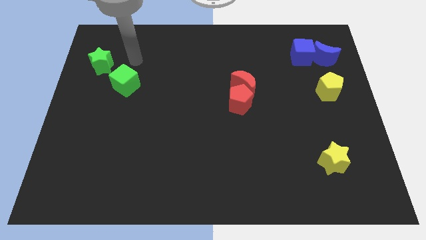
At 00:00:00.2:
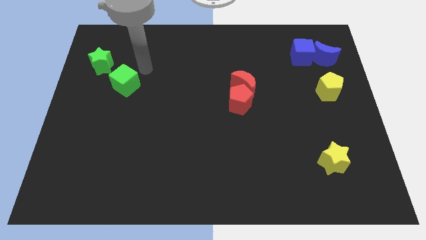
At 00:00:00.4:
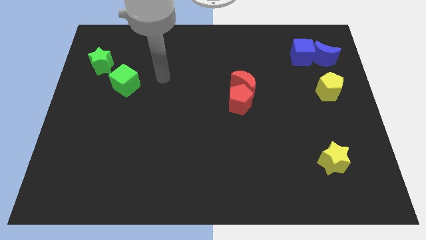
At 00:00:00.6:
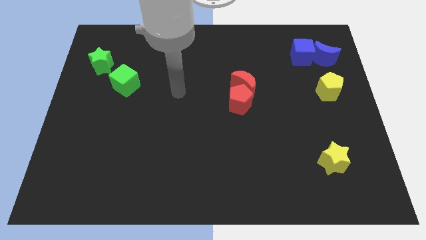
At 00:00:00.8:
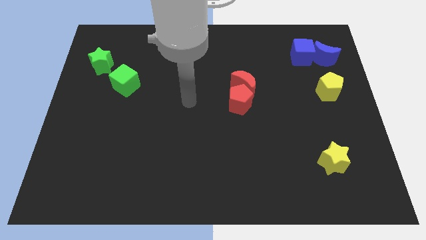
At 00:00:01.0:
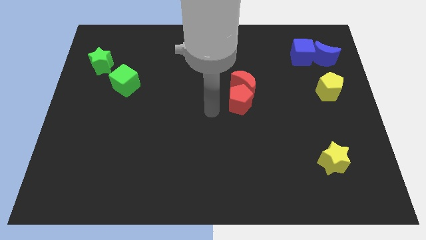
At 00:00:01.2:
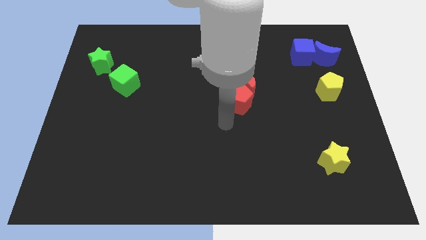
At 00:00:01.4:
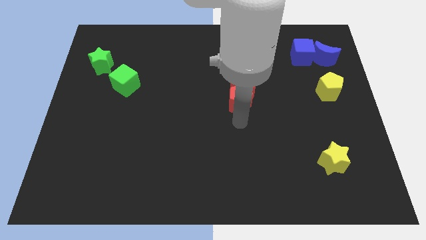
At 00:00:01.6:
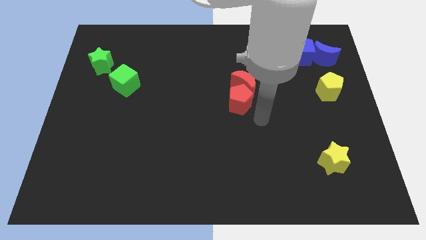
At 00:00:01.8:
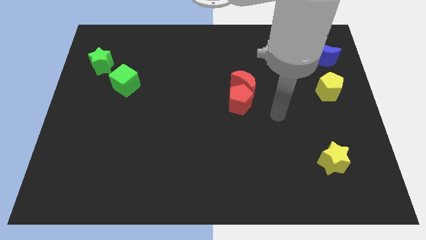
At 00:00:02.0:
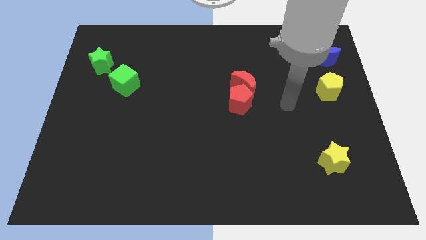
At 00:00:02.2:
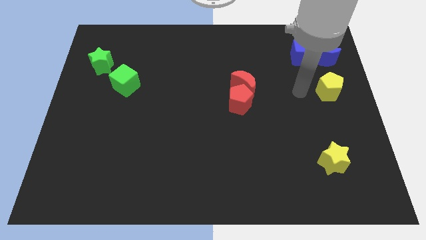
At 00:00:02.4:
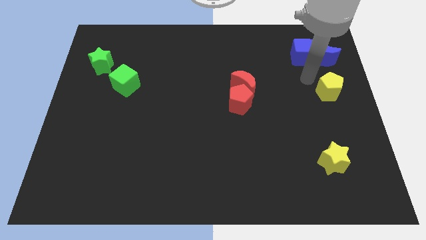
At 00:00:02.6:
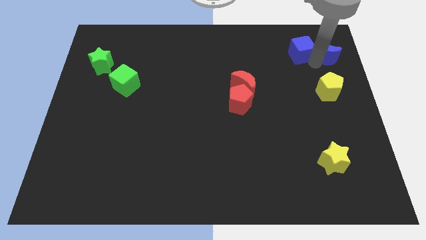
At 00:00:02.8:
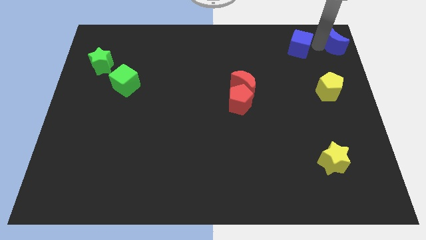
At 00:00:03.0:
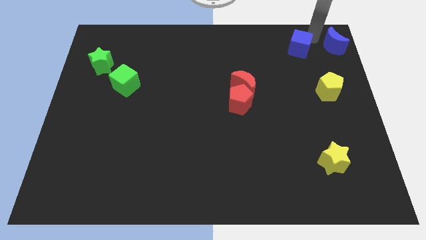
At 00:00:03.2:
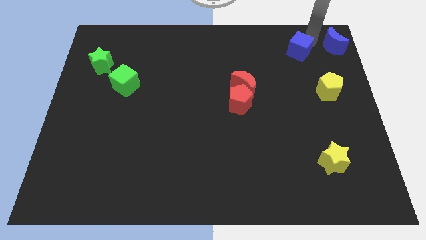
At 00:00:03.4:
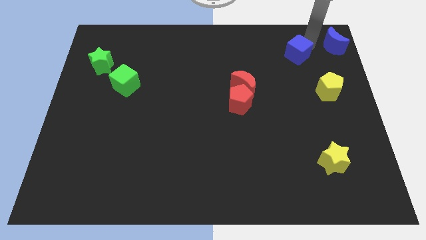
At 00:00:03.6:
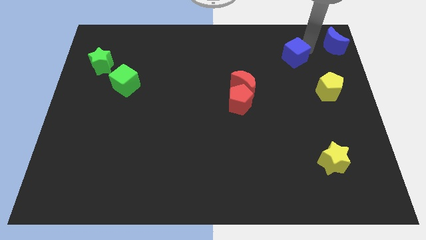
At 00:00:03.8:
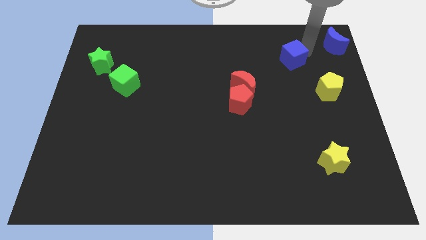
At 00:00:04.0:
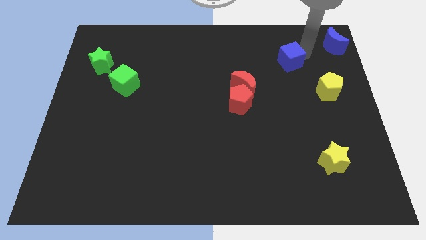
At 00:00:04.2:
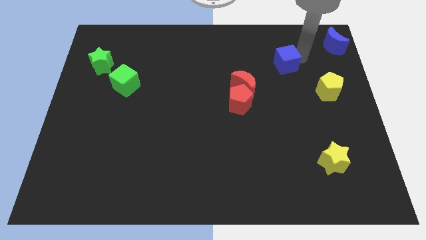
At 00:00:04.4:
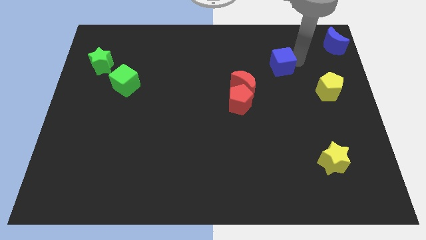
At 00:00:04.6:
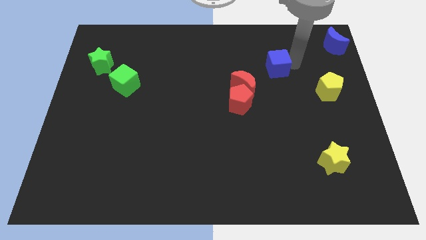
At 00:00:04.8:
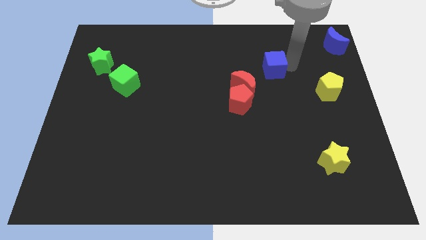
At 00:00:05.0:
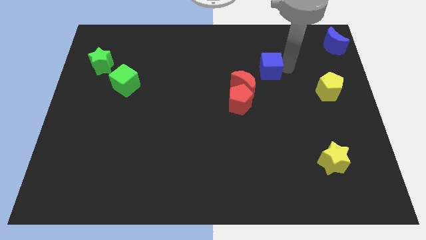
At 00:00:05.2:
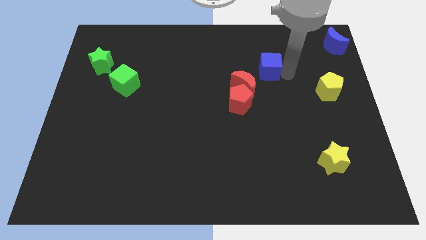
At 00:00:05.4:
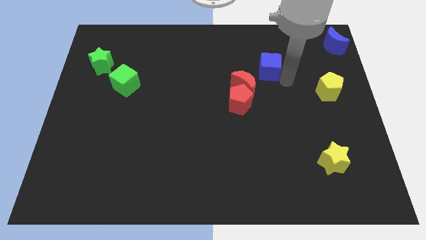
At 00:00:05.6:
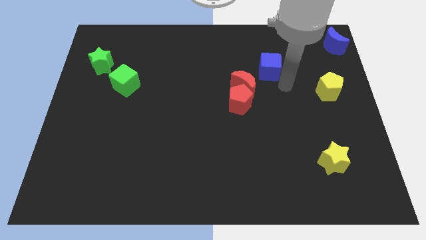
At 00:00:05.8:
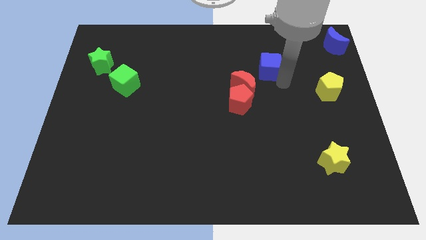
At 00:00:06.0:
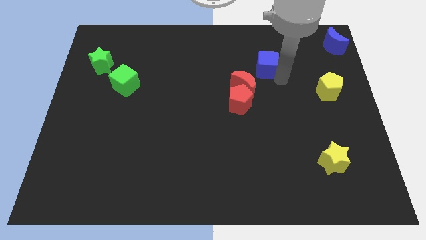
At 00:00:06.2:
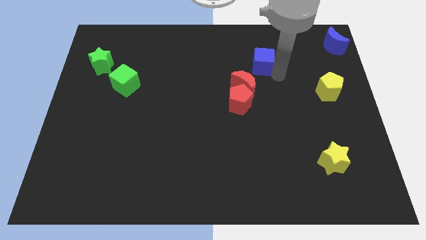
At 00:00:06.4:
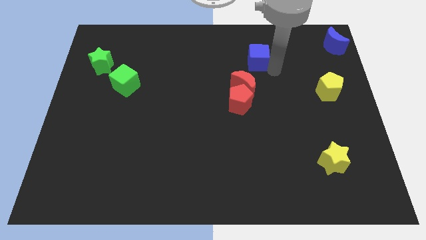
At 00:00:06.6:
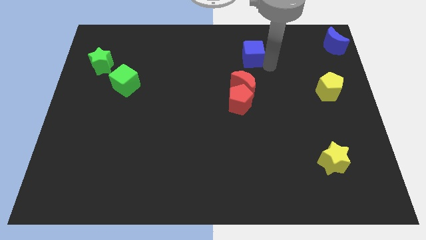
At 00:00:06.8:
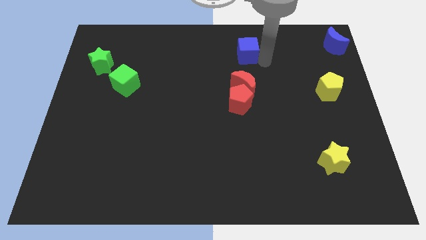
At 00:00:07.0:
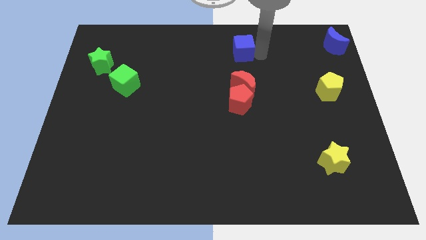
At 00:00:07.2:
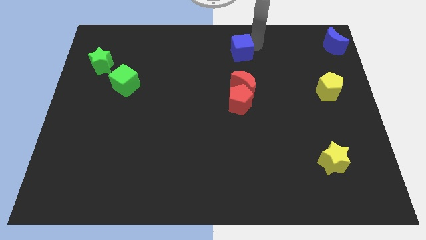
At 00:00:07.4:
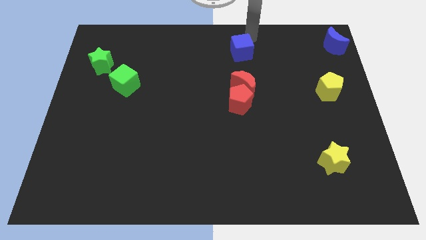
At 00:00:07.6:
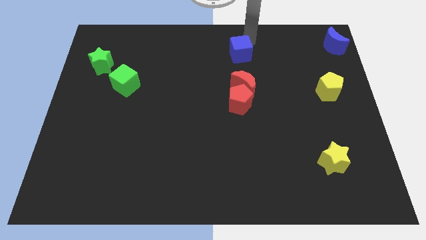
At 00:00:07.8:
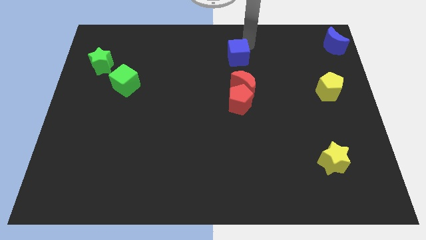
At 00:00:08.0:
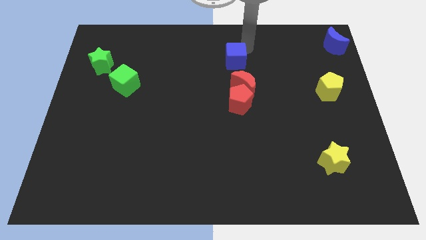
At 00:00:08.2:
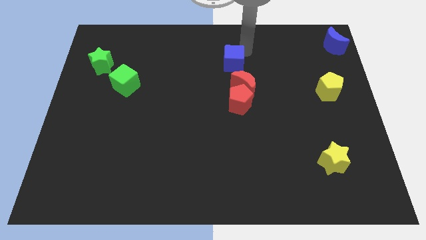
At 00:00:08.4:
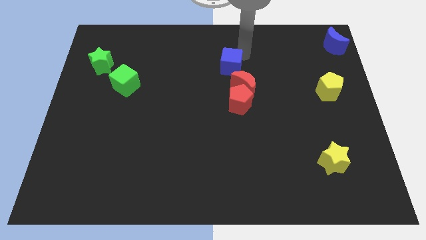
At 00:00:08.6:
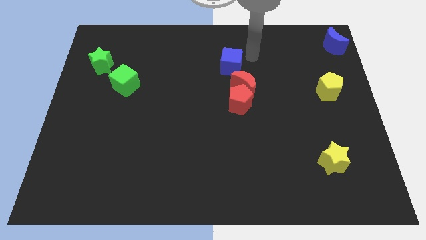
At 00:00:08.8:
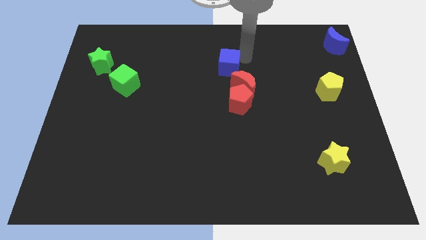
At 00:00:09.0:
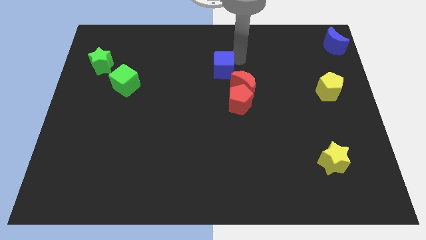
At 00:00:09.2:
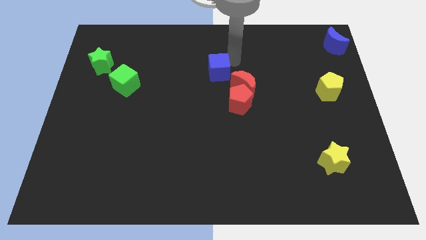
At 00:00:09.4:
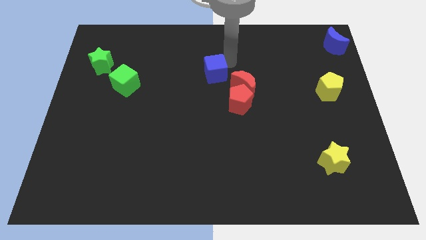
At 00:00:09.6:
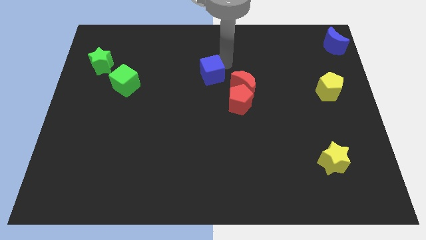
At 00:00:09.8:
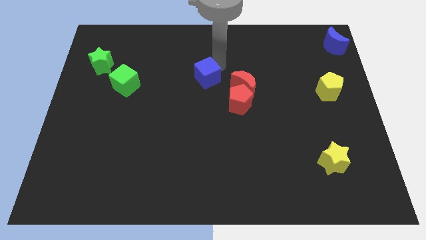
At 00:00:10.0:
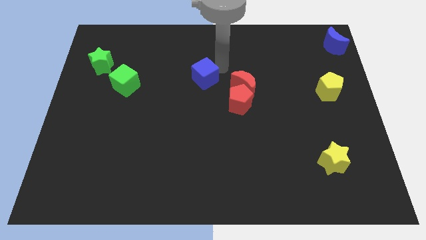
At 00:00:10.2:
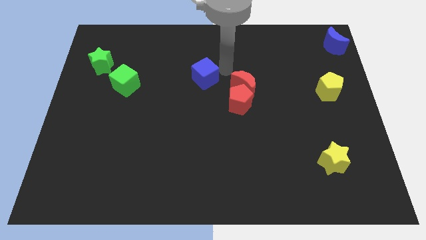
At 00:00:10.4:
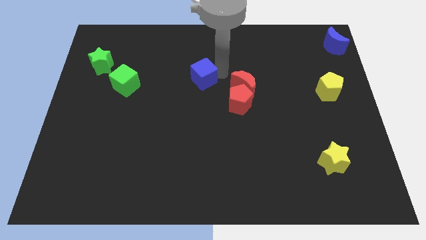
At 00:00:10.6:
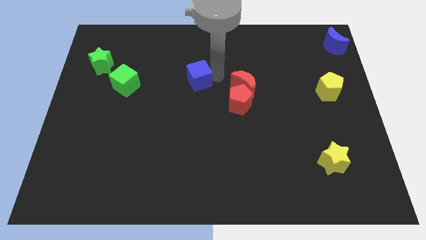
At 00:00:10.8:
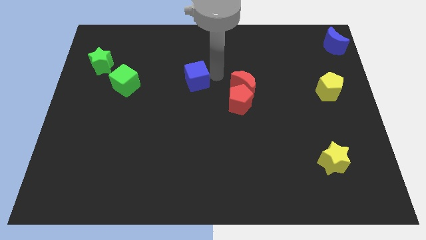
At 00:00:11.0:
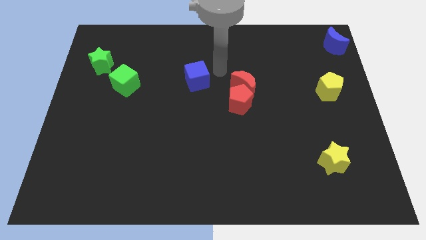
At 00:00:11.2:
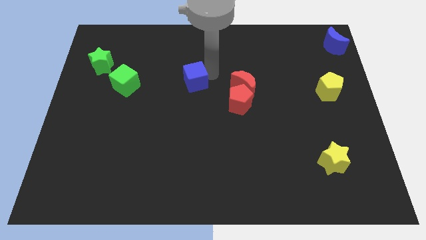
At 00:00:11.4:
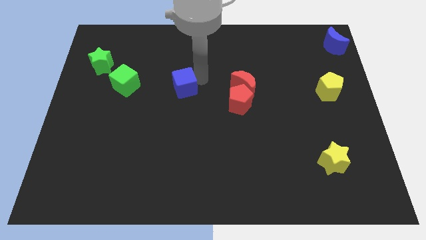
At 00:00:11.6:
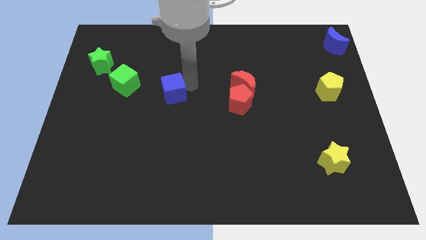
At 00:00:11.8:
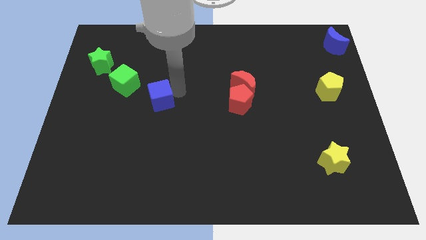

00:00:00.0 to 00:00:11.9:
put the blue cube diagonally down and to the right of the green cube

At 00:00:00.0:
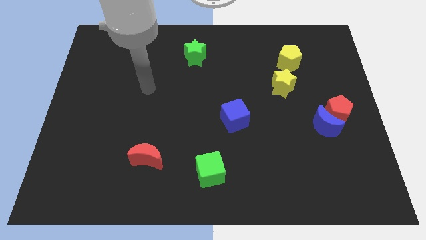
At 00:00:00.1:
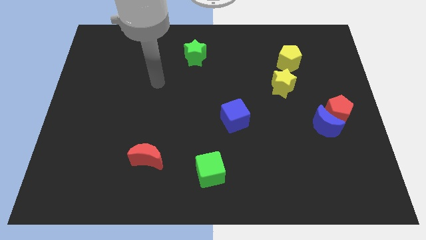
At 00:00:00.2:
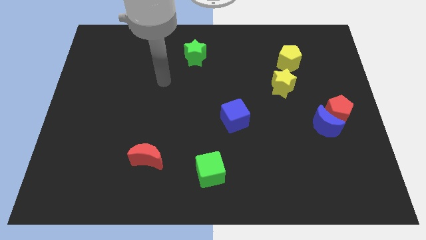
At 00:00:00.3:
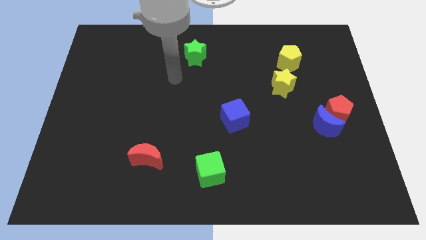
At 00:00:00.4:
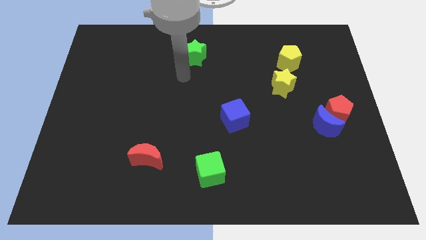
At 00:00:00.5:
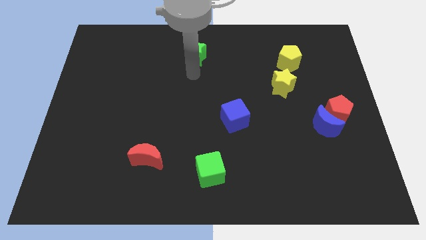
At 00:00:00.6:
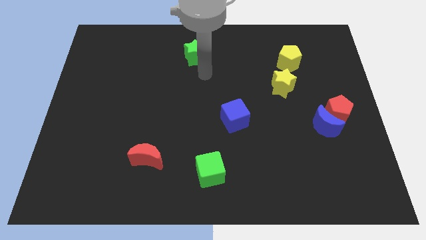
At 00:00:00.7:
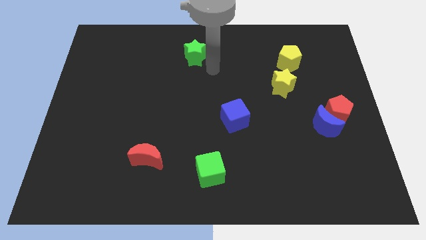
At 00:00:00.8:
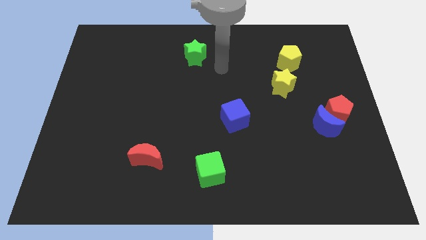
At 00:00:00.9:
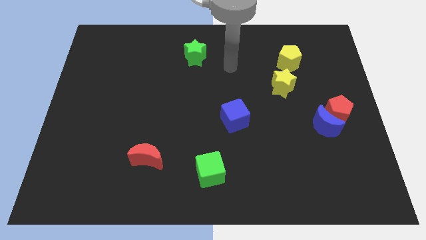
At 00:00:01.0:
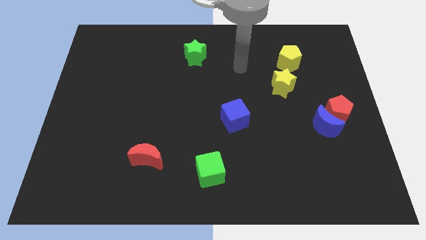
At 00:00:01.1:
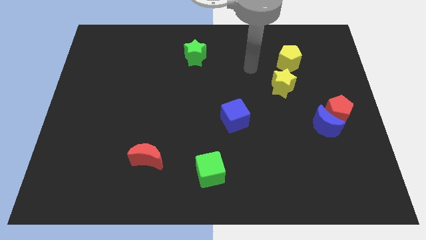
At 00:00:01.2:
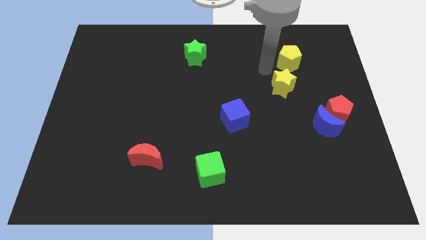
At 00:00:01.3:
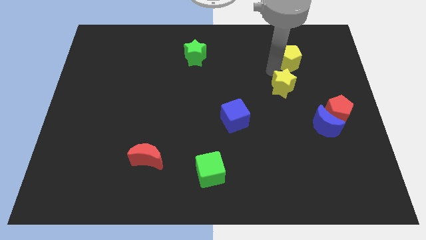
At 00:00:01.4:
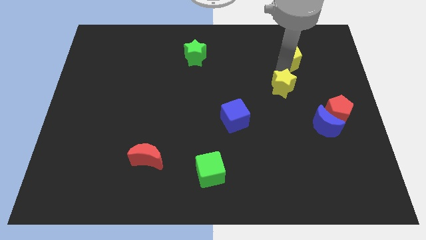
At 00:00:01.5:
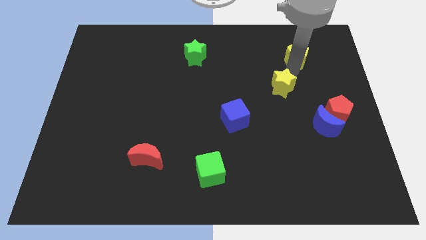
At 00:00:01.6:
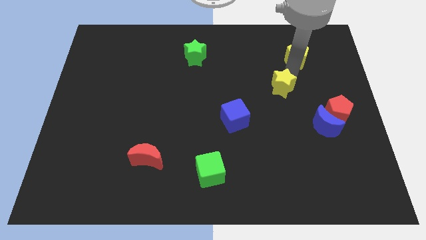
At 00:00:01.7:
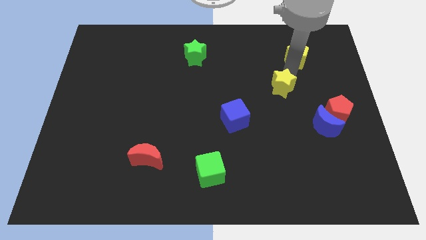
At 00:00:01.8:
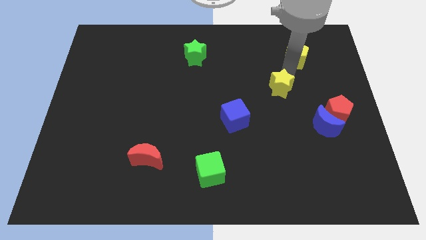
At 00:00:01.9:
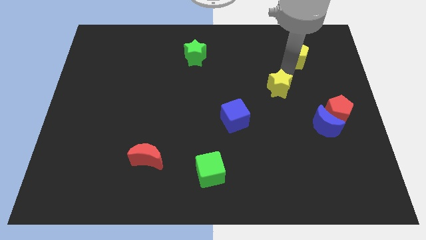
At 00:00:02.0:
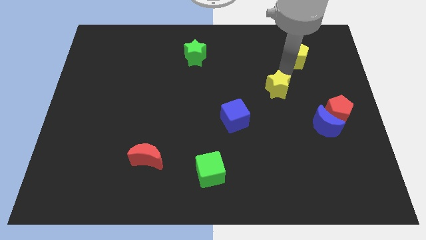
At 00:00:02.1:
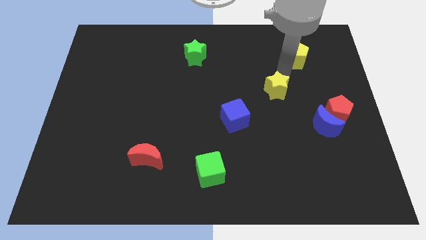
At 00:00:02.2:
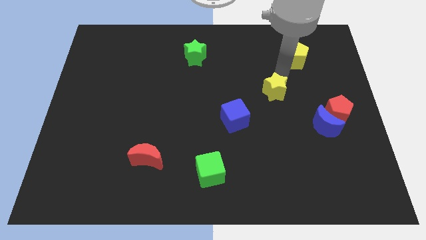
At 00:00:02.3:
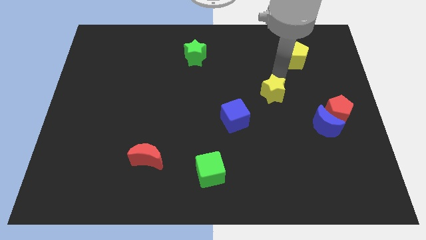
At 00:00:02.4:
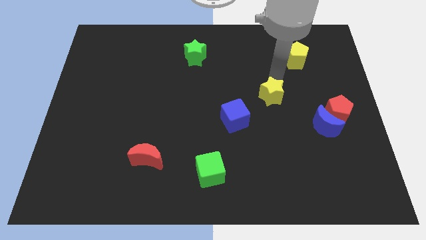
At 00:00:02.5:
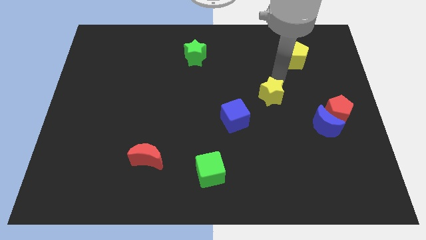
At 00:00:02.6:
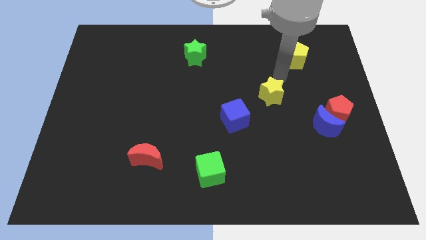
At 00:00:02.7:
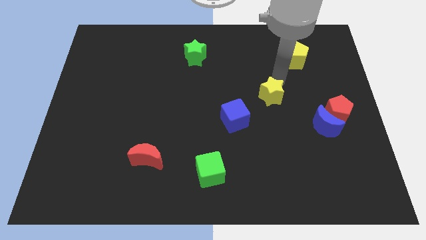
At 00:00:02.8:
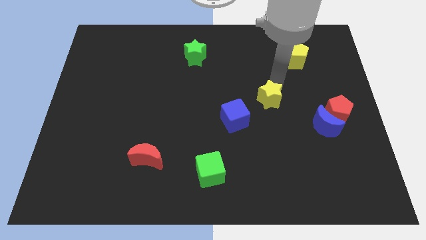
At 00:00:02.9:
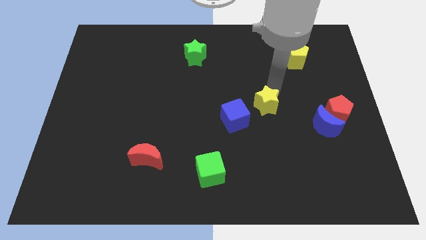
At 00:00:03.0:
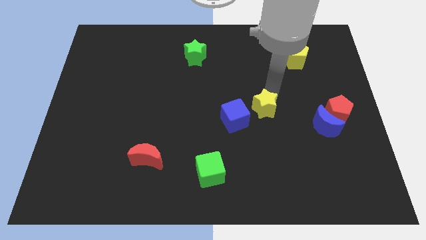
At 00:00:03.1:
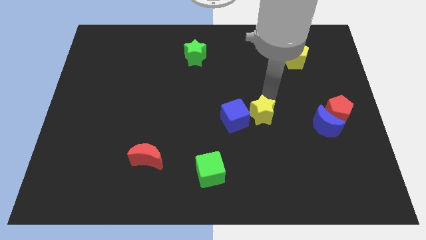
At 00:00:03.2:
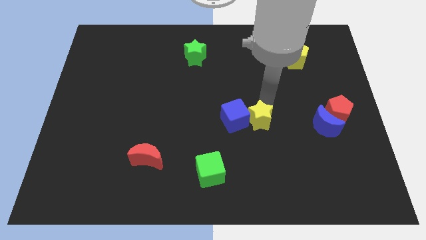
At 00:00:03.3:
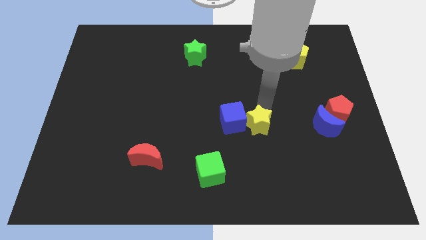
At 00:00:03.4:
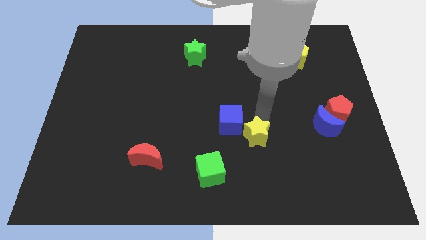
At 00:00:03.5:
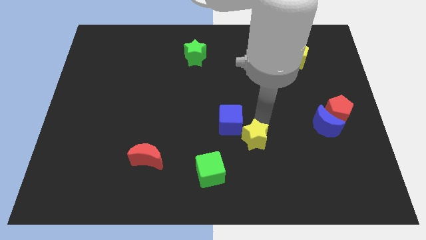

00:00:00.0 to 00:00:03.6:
move the yellow star to the top right of the green cube
